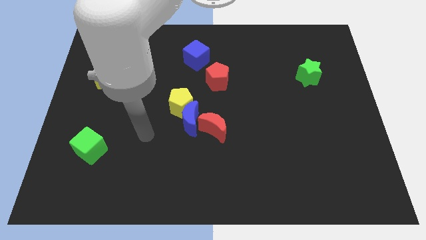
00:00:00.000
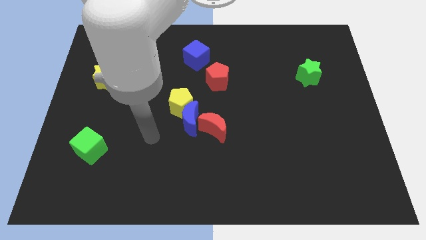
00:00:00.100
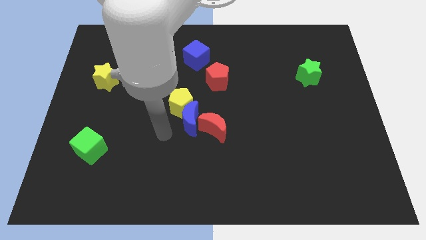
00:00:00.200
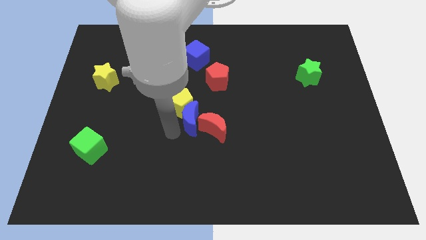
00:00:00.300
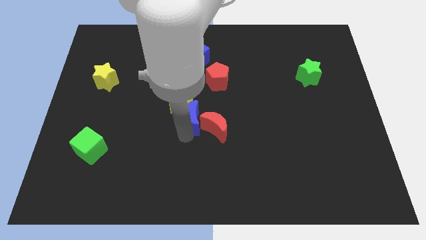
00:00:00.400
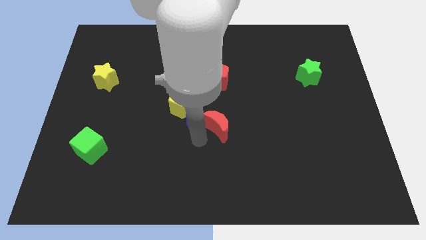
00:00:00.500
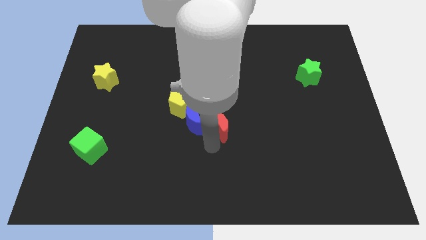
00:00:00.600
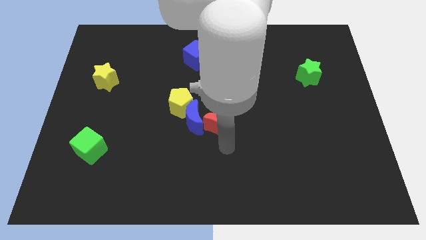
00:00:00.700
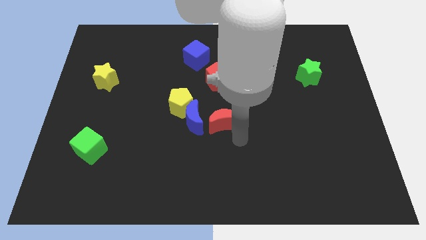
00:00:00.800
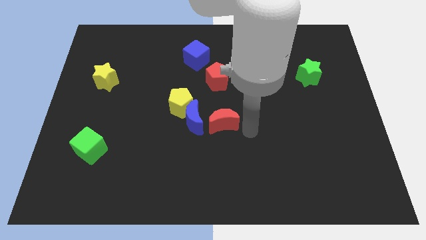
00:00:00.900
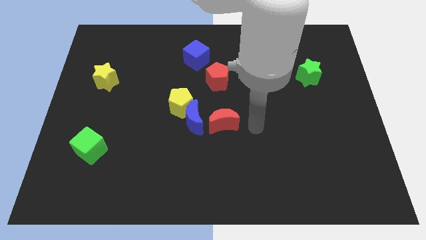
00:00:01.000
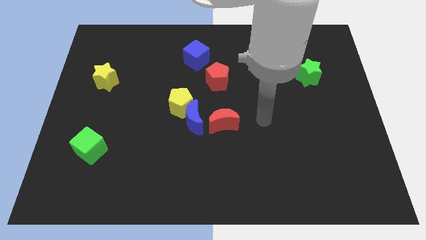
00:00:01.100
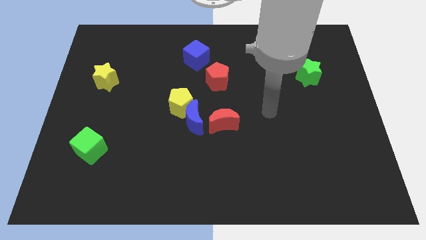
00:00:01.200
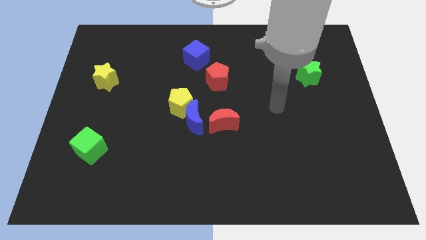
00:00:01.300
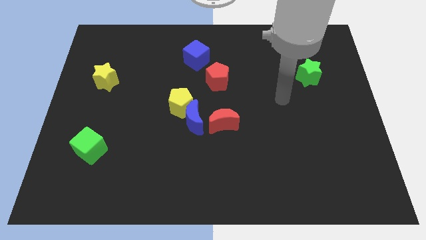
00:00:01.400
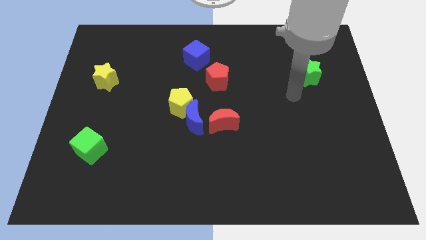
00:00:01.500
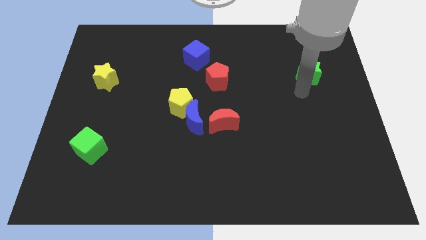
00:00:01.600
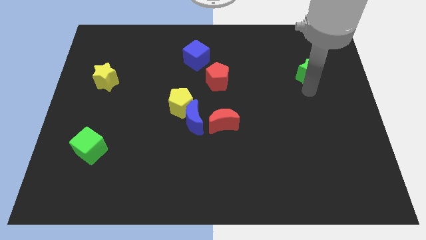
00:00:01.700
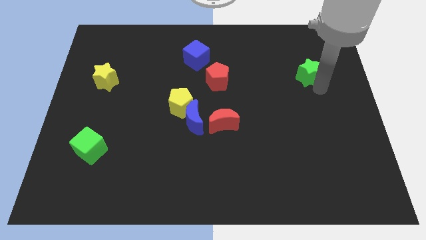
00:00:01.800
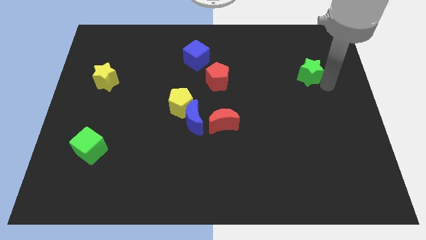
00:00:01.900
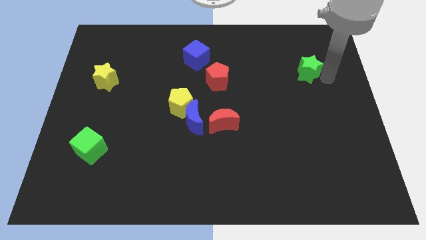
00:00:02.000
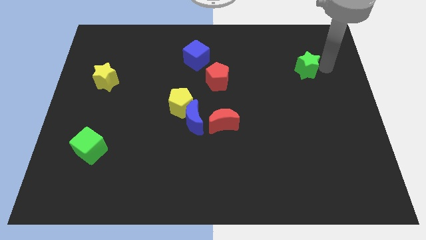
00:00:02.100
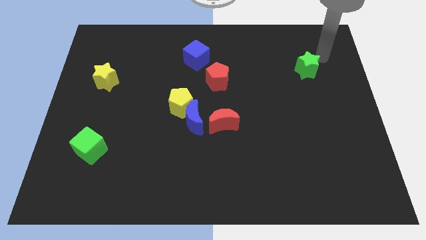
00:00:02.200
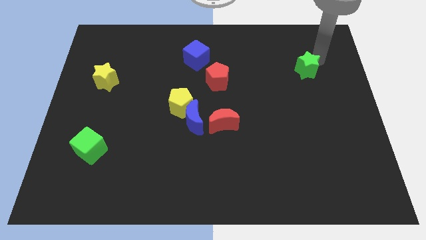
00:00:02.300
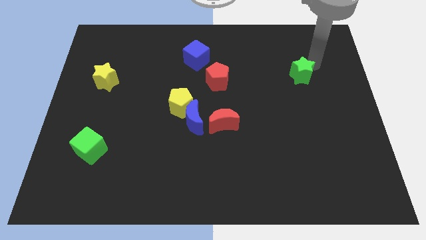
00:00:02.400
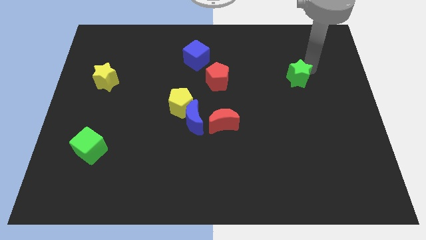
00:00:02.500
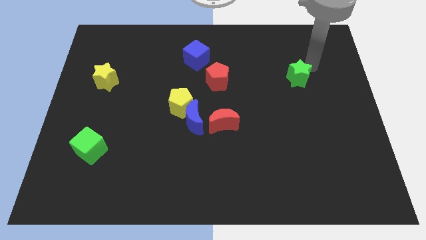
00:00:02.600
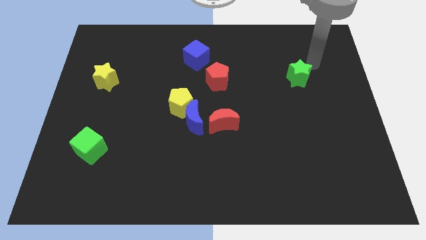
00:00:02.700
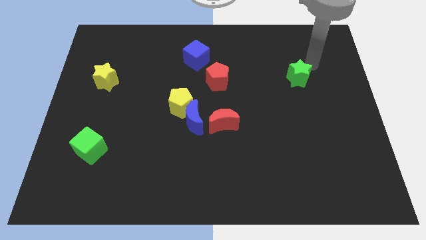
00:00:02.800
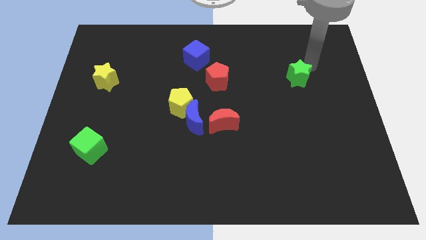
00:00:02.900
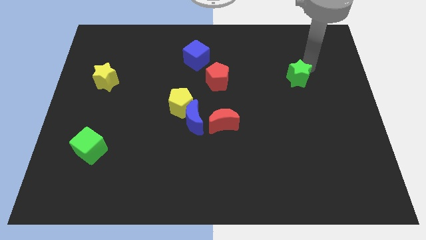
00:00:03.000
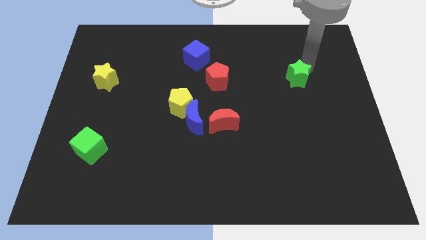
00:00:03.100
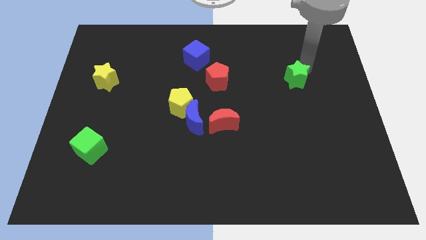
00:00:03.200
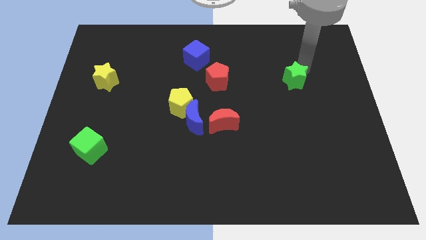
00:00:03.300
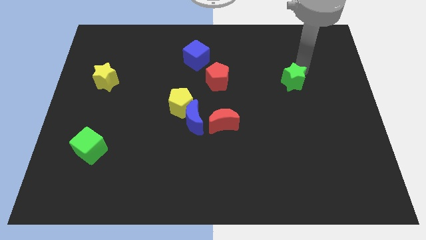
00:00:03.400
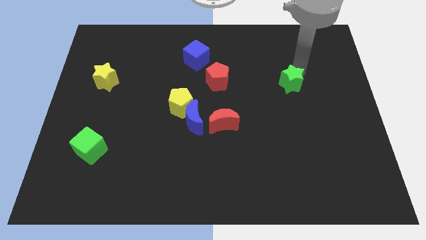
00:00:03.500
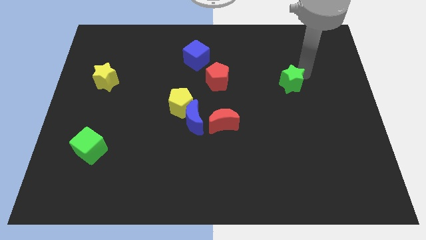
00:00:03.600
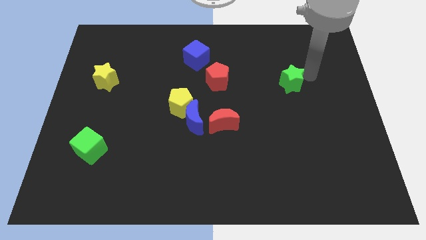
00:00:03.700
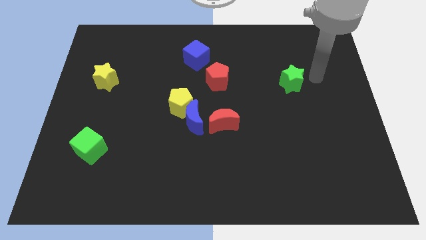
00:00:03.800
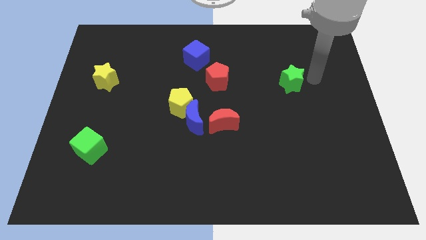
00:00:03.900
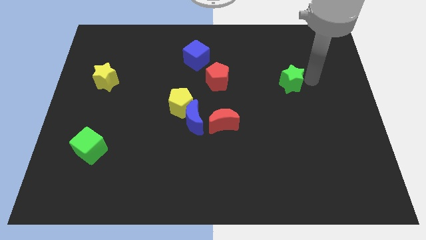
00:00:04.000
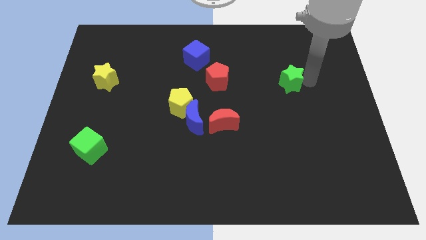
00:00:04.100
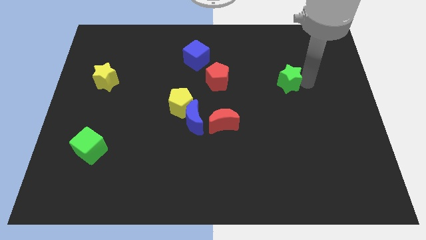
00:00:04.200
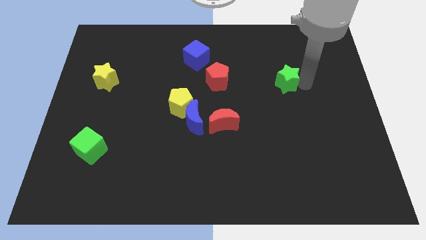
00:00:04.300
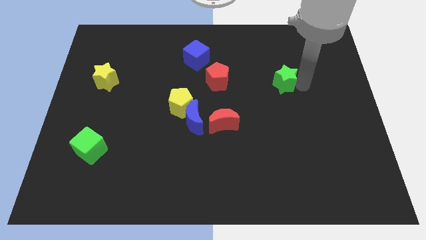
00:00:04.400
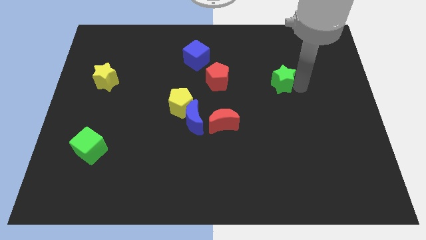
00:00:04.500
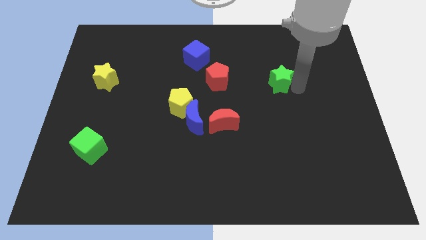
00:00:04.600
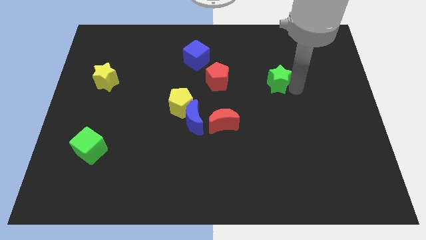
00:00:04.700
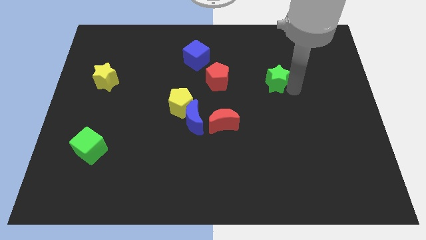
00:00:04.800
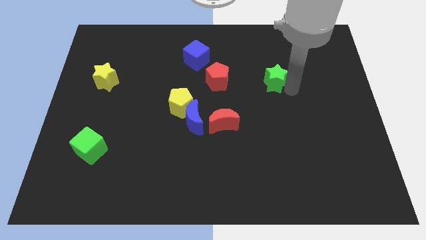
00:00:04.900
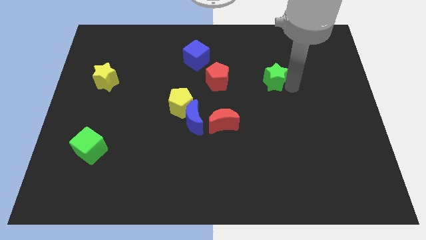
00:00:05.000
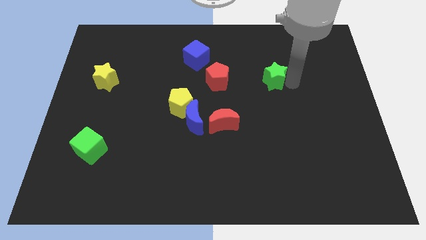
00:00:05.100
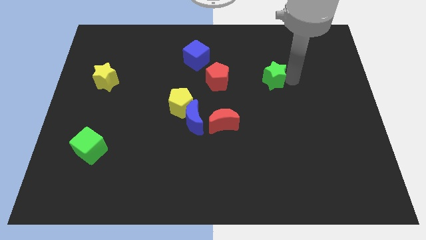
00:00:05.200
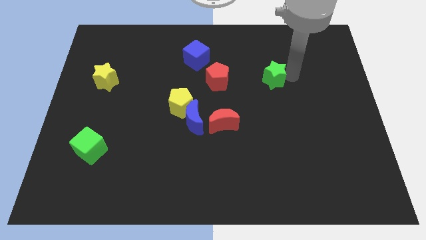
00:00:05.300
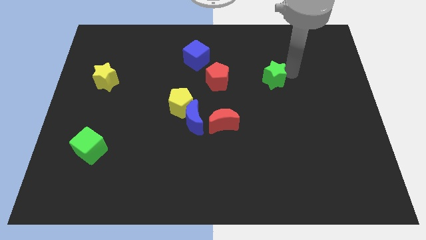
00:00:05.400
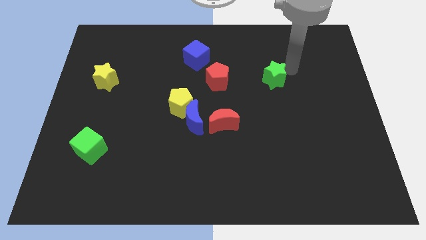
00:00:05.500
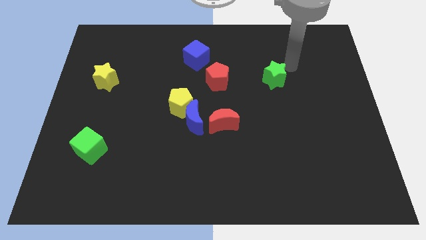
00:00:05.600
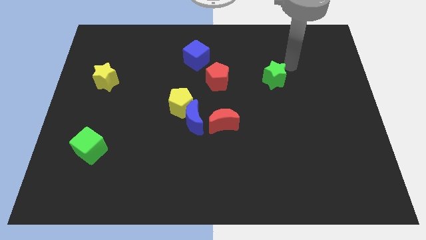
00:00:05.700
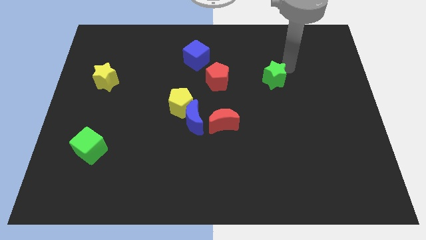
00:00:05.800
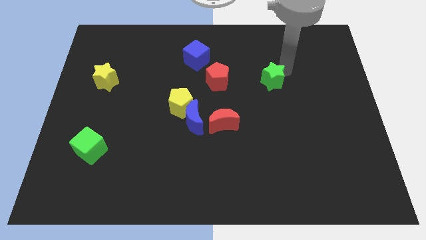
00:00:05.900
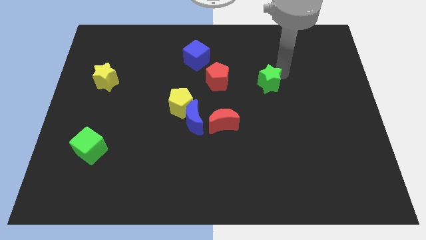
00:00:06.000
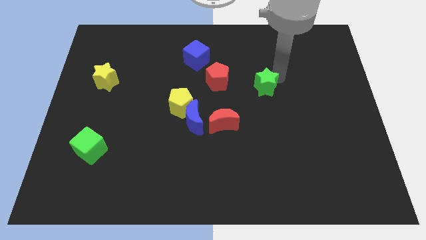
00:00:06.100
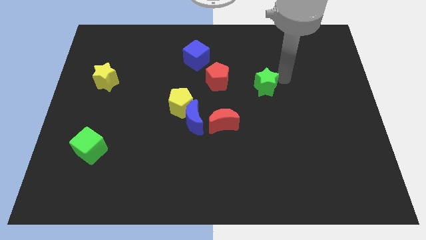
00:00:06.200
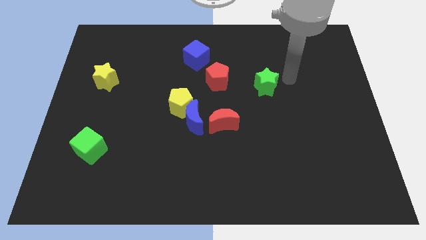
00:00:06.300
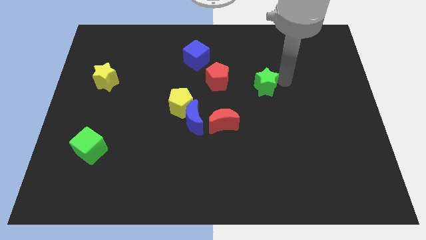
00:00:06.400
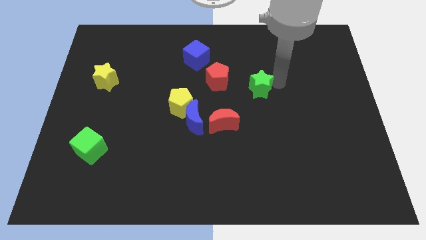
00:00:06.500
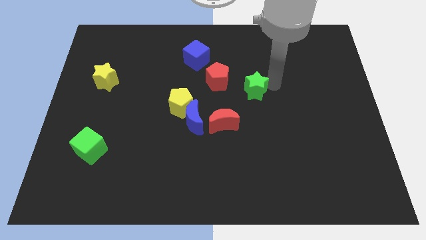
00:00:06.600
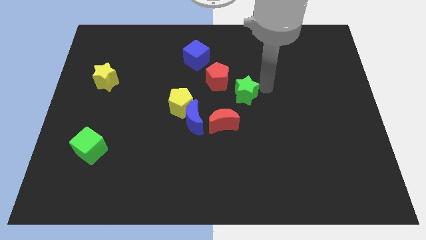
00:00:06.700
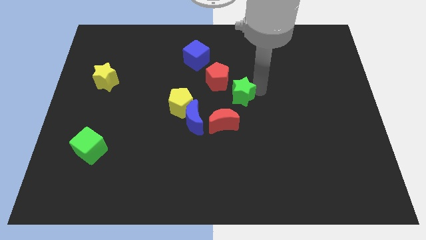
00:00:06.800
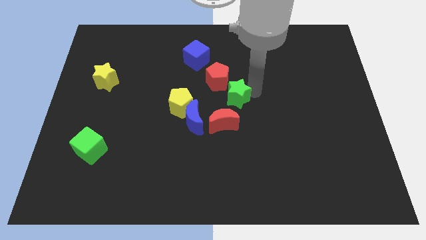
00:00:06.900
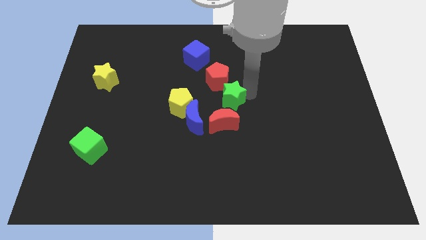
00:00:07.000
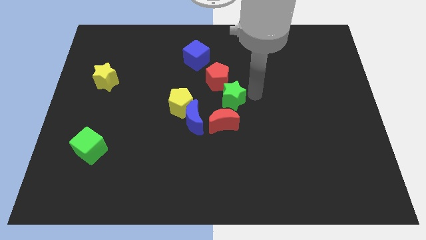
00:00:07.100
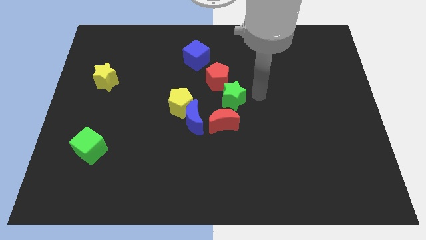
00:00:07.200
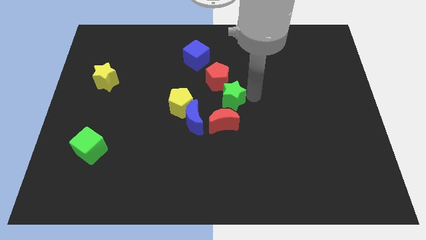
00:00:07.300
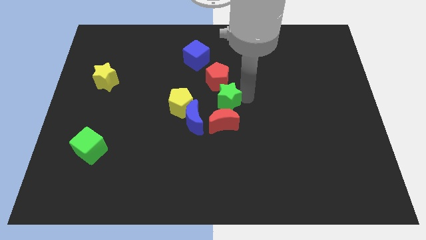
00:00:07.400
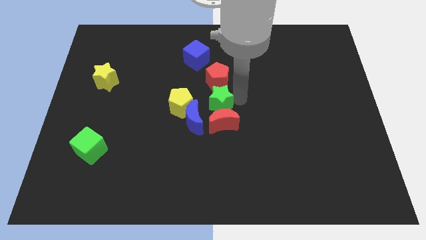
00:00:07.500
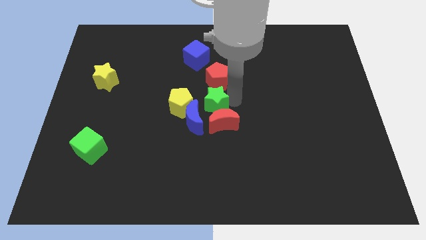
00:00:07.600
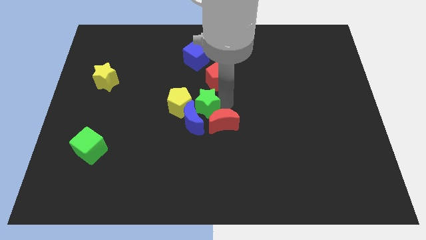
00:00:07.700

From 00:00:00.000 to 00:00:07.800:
slide the green star next to the yellow pentagon
